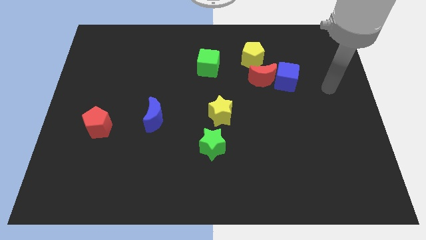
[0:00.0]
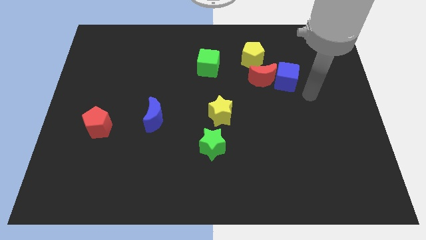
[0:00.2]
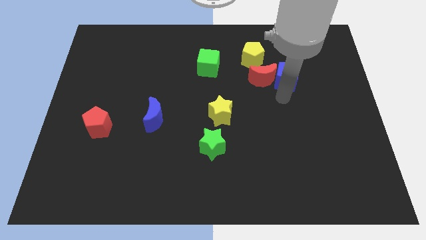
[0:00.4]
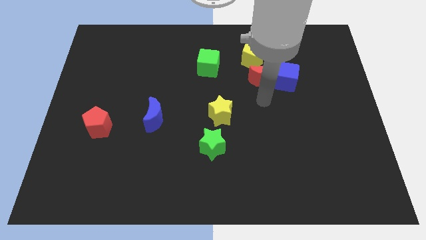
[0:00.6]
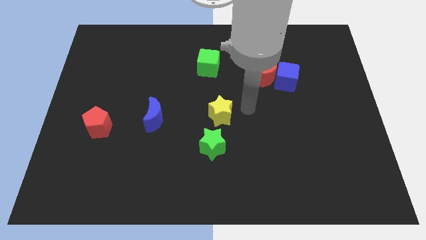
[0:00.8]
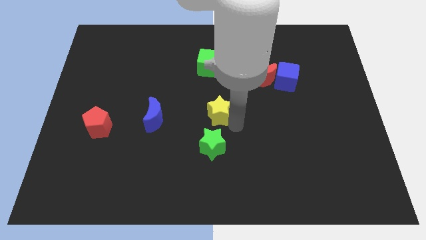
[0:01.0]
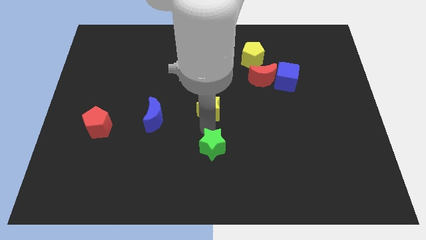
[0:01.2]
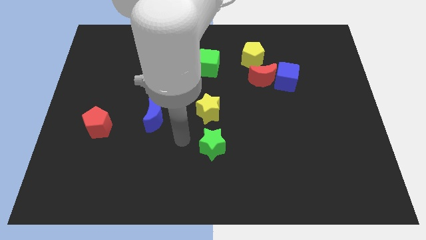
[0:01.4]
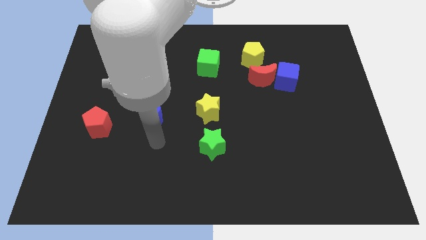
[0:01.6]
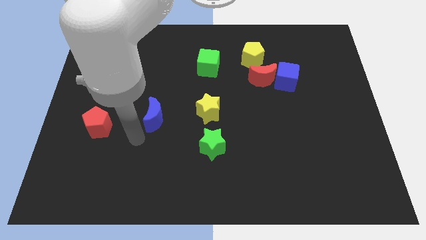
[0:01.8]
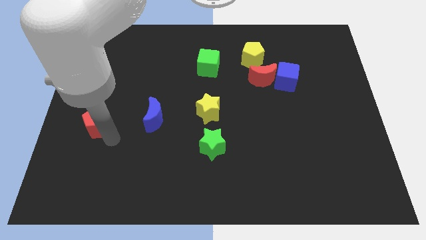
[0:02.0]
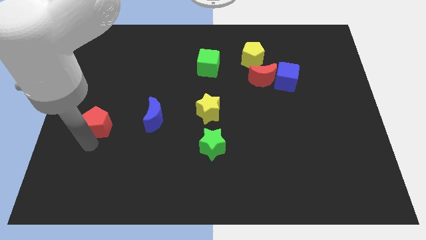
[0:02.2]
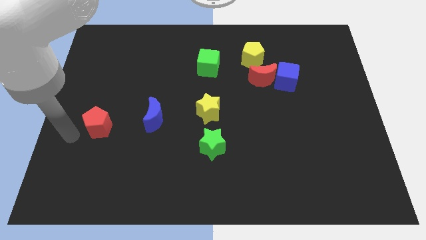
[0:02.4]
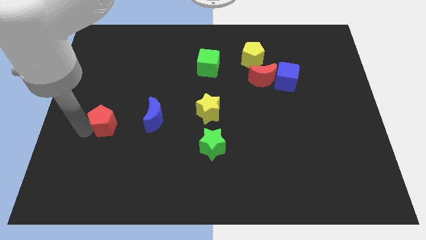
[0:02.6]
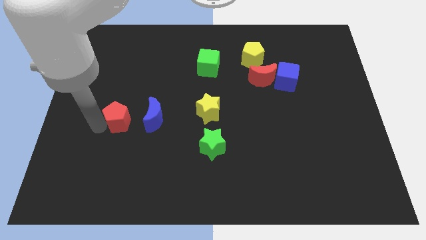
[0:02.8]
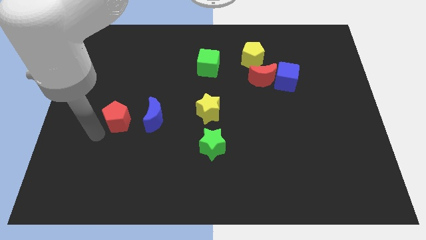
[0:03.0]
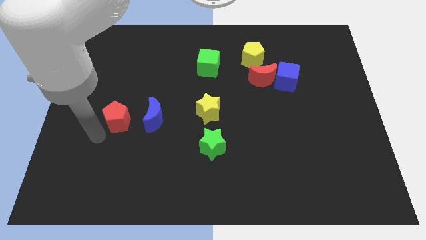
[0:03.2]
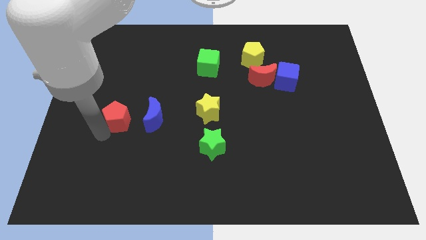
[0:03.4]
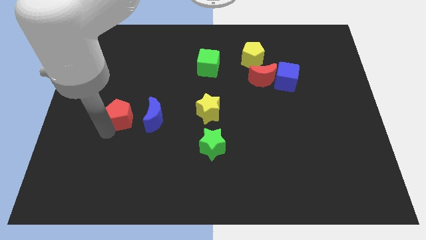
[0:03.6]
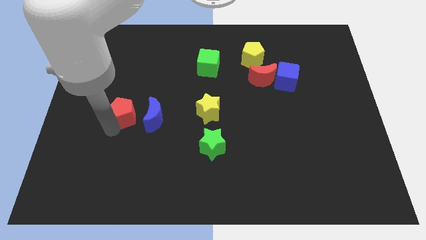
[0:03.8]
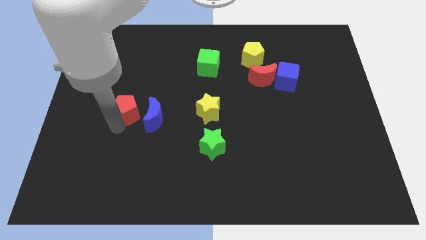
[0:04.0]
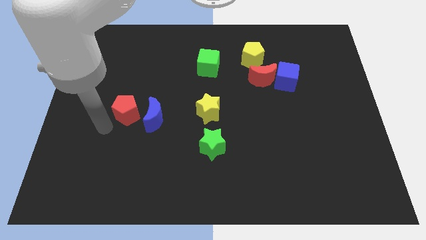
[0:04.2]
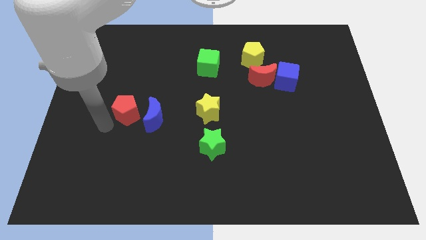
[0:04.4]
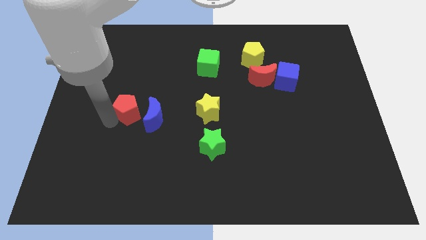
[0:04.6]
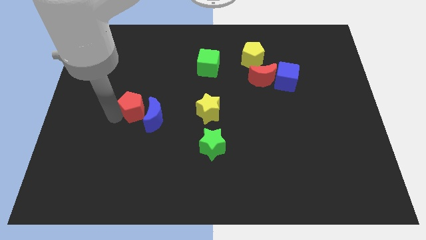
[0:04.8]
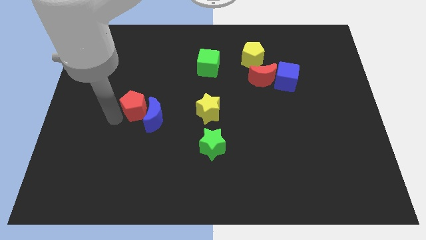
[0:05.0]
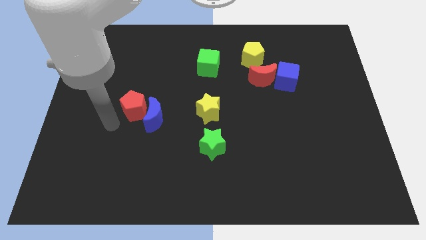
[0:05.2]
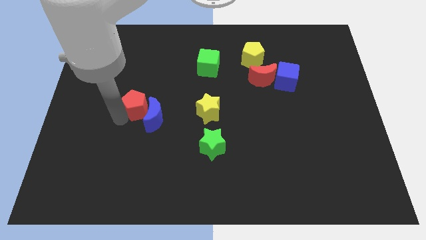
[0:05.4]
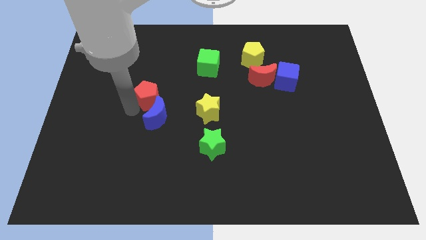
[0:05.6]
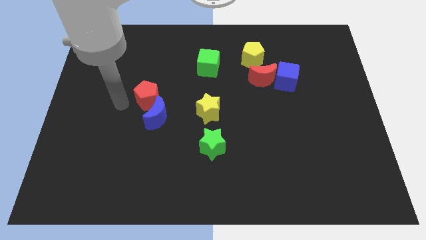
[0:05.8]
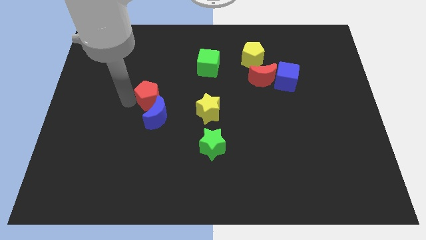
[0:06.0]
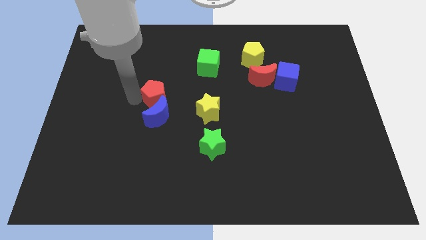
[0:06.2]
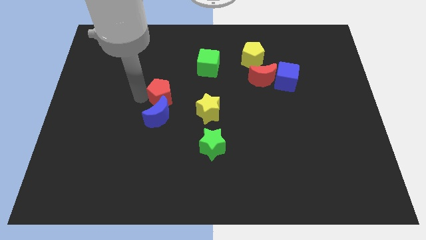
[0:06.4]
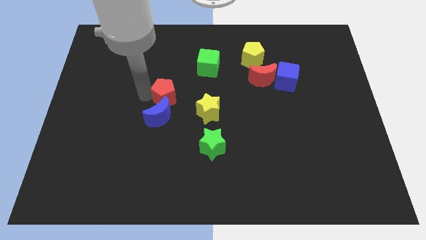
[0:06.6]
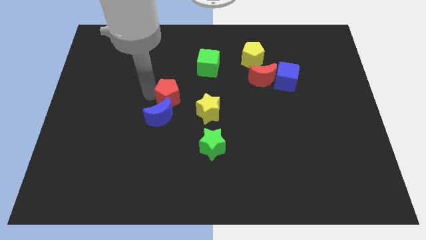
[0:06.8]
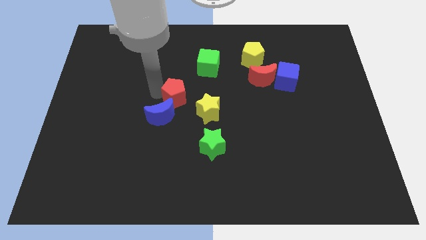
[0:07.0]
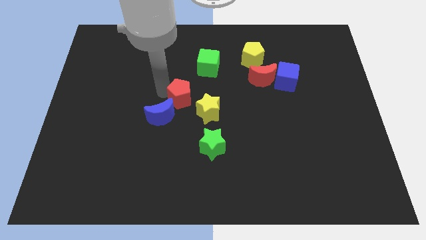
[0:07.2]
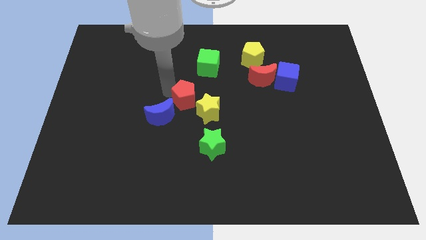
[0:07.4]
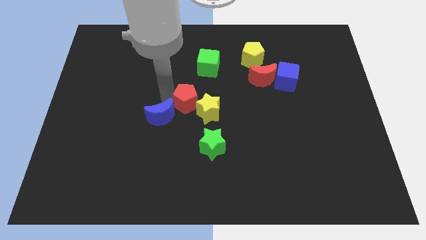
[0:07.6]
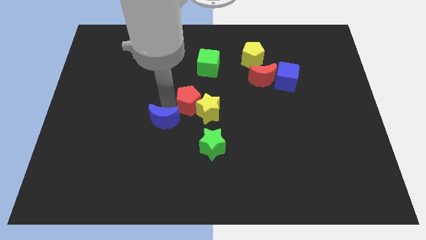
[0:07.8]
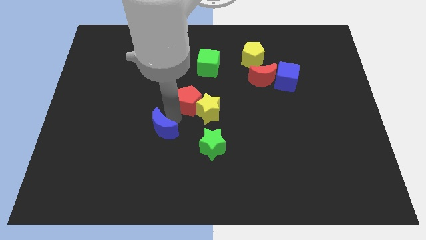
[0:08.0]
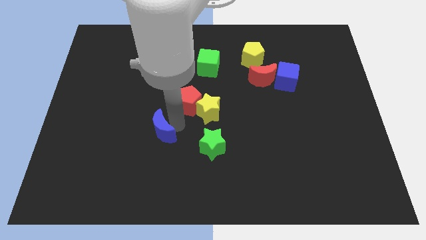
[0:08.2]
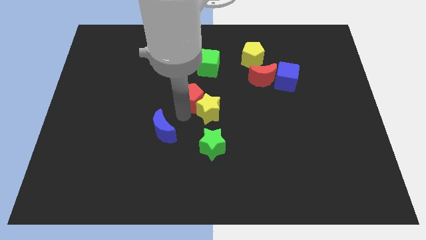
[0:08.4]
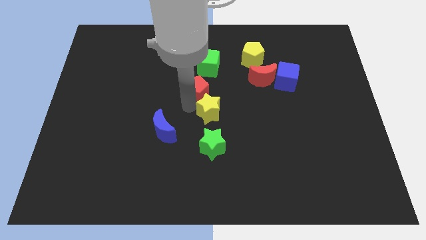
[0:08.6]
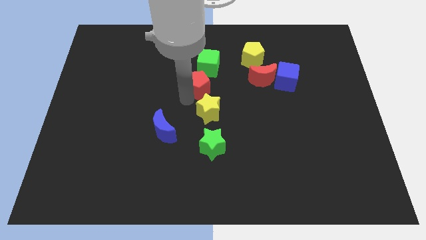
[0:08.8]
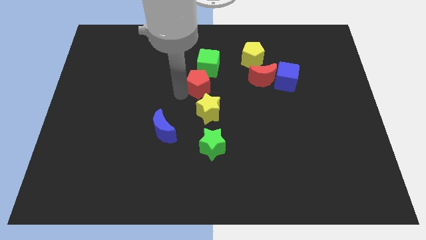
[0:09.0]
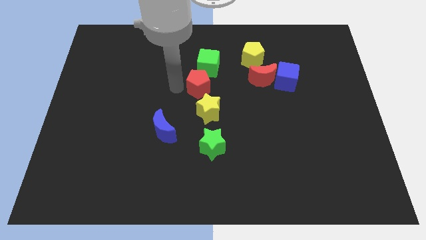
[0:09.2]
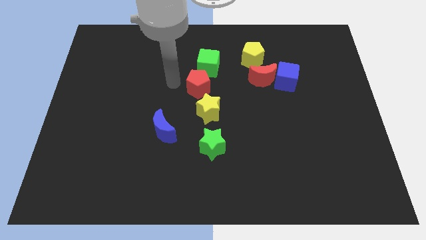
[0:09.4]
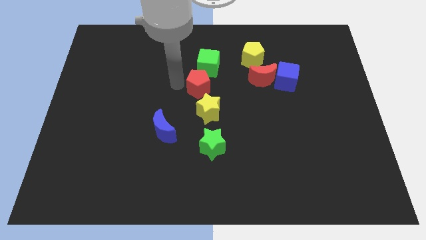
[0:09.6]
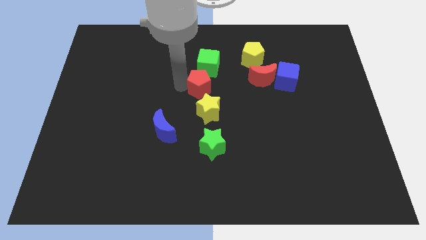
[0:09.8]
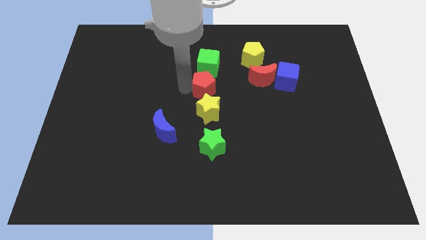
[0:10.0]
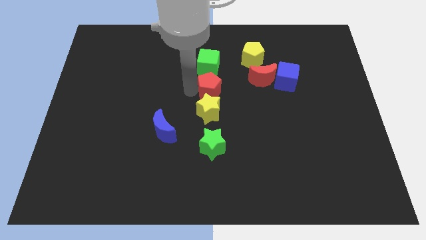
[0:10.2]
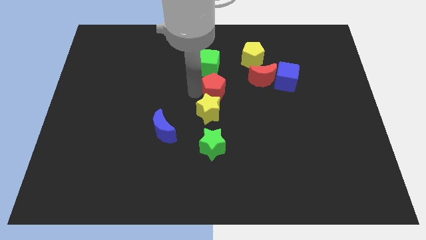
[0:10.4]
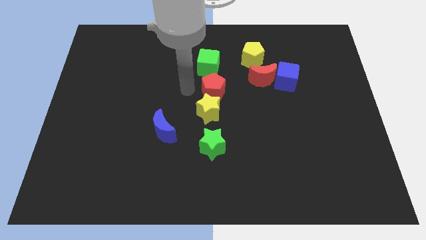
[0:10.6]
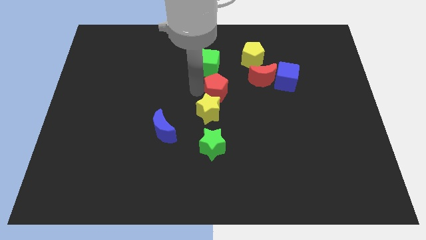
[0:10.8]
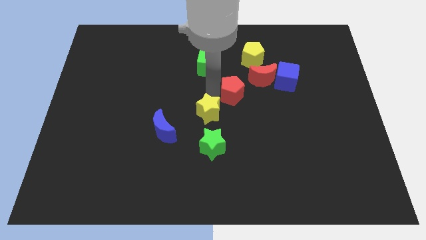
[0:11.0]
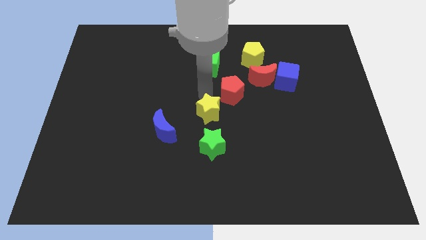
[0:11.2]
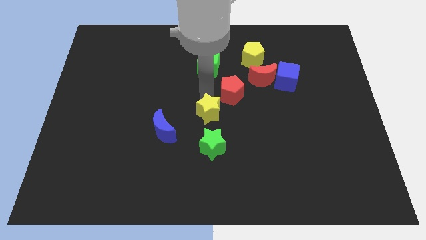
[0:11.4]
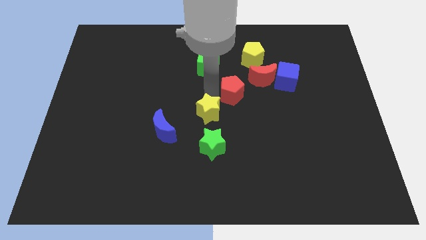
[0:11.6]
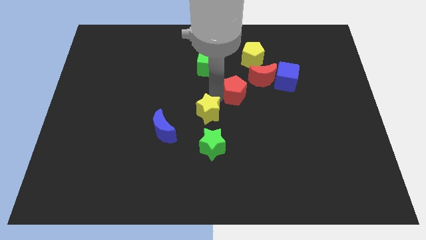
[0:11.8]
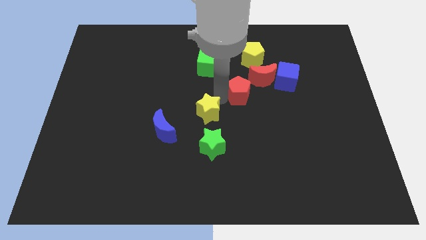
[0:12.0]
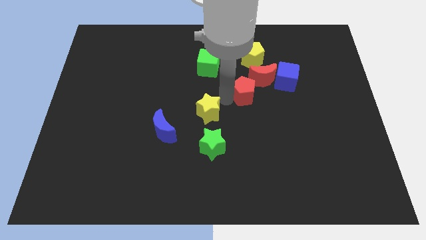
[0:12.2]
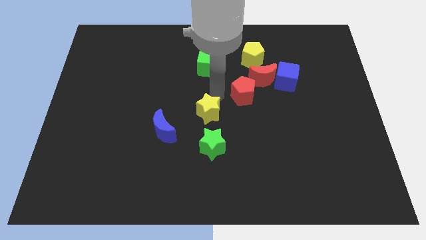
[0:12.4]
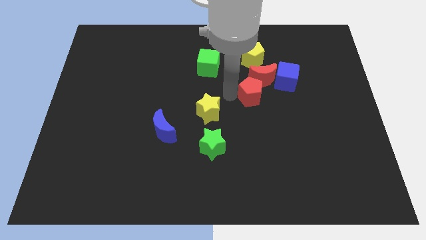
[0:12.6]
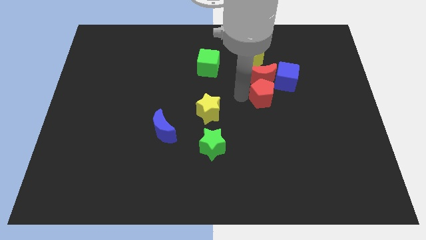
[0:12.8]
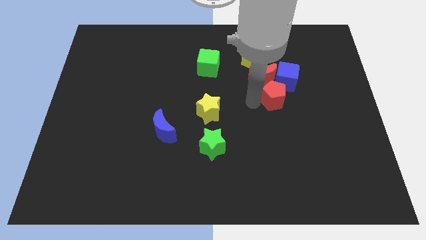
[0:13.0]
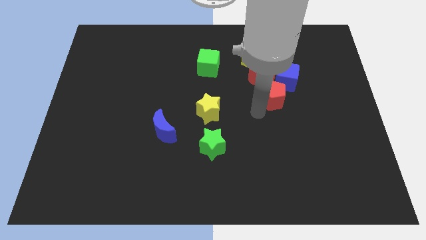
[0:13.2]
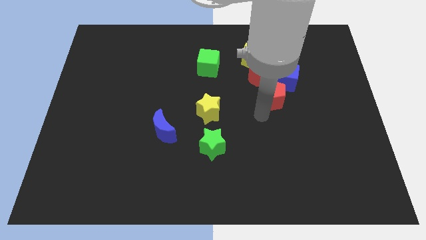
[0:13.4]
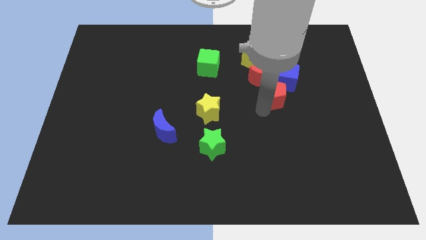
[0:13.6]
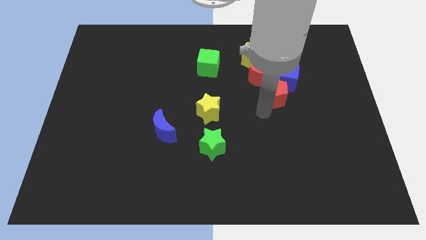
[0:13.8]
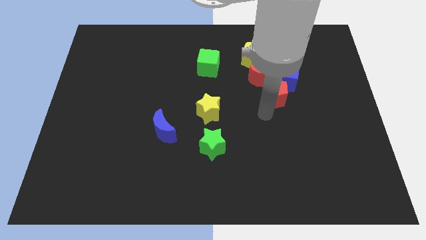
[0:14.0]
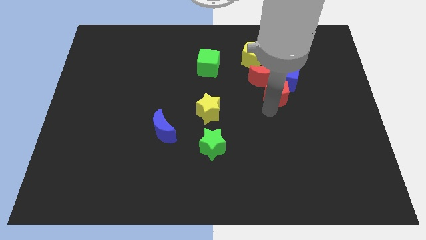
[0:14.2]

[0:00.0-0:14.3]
push the red pentagon to the blue cube
